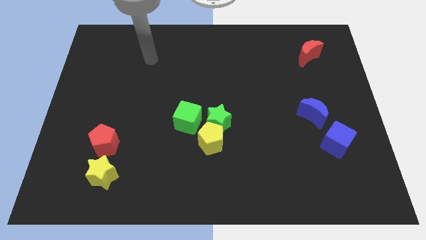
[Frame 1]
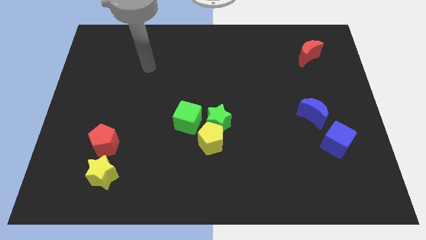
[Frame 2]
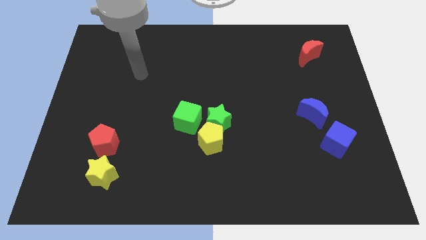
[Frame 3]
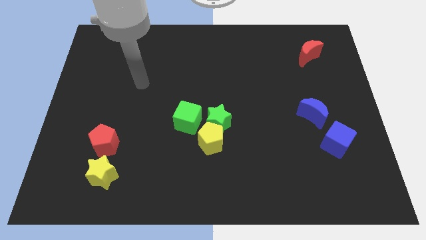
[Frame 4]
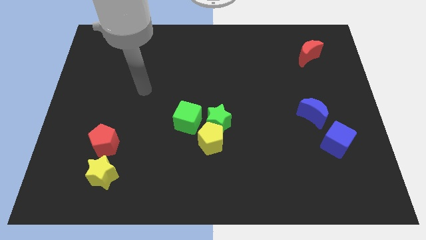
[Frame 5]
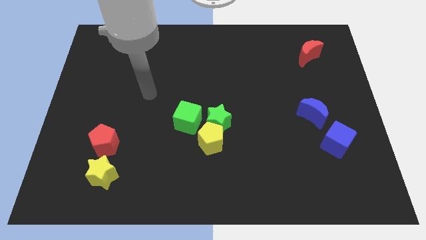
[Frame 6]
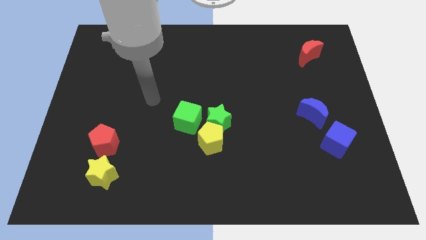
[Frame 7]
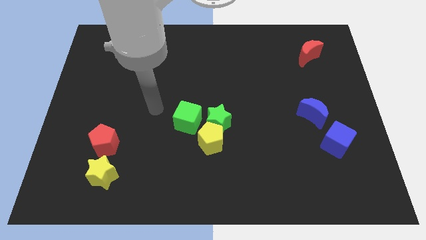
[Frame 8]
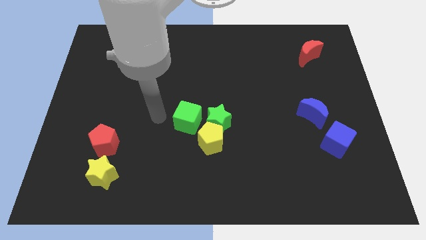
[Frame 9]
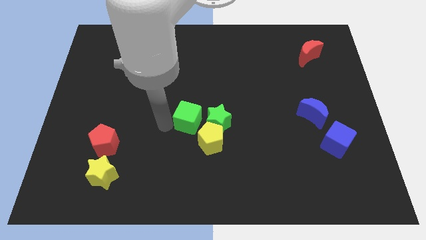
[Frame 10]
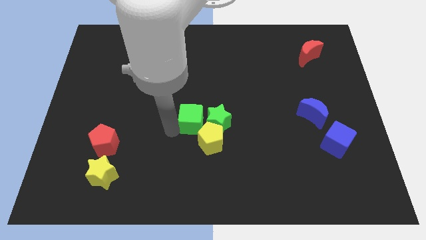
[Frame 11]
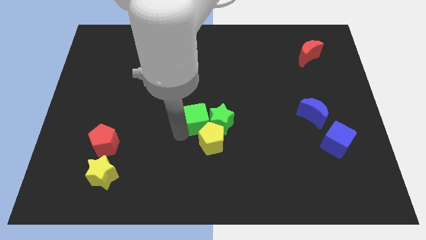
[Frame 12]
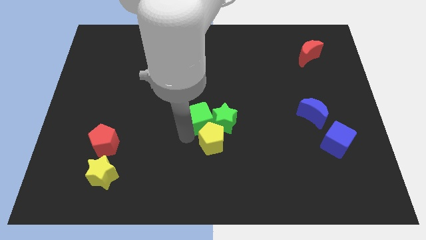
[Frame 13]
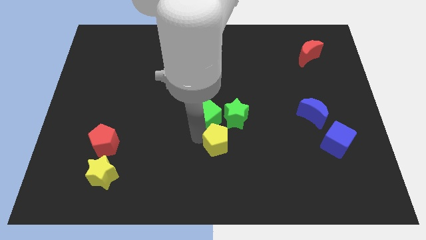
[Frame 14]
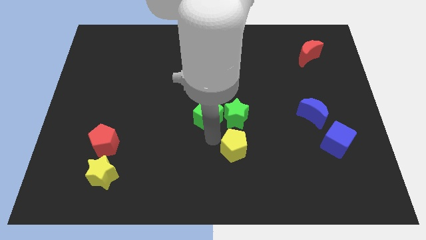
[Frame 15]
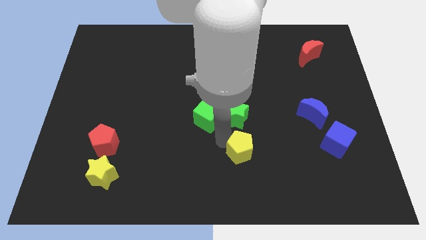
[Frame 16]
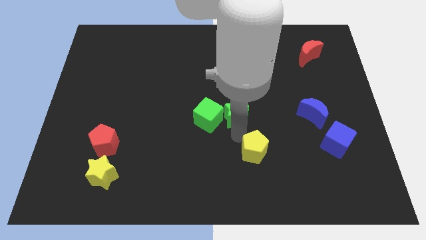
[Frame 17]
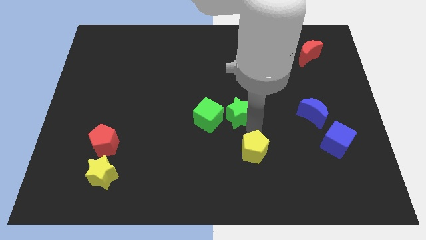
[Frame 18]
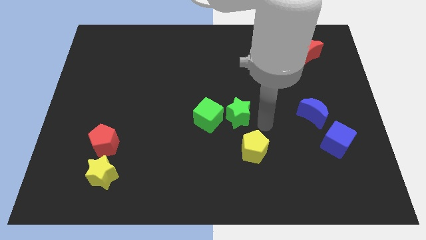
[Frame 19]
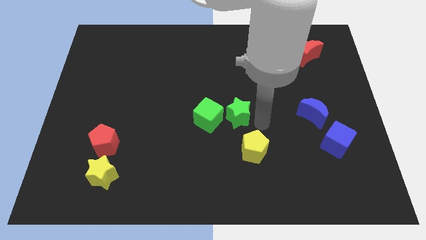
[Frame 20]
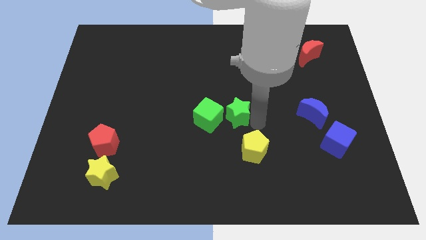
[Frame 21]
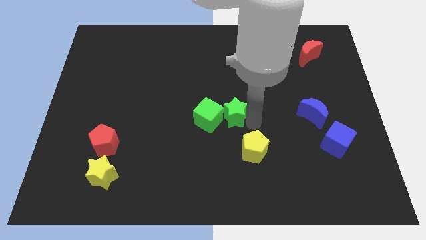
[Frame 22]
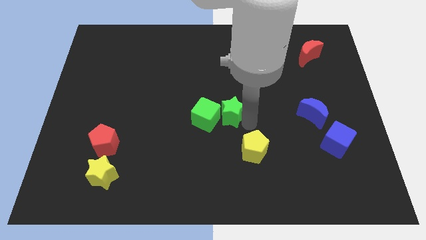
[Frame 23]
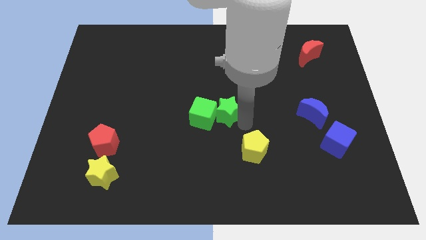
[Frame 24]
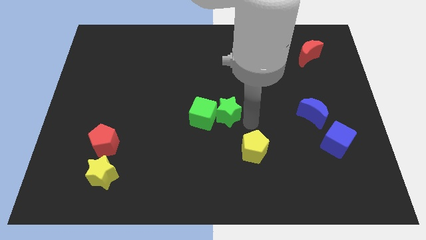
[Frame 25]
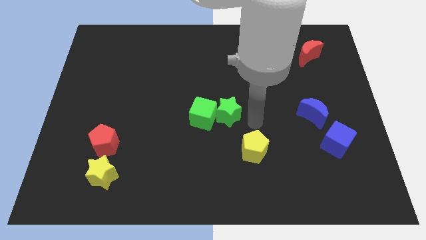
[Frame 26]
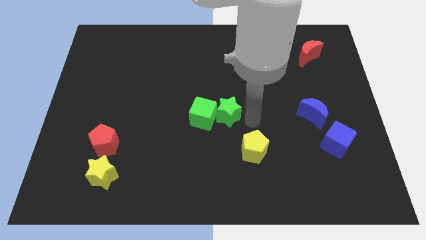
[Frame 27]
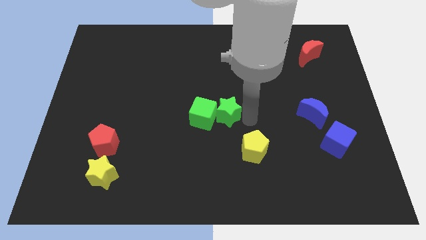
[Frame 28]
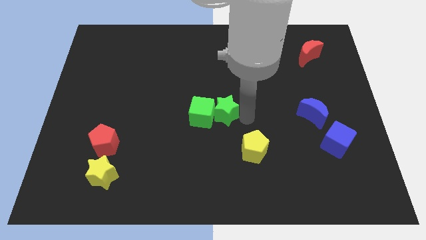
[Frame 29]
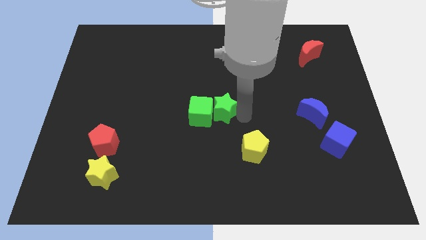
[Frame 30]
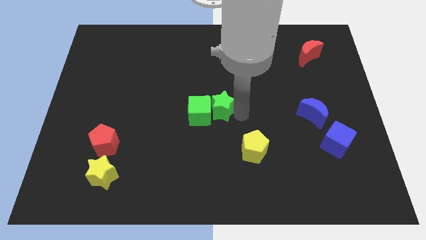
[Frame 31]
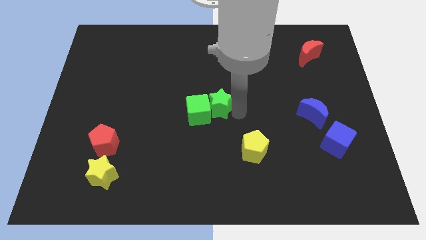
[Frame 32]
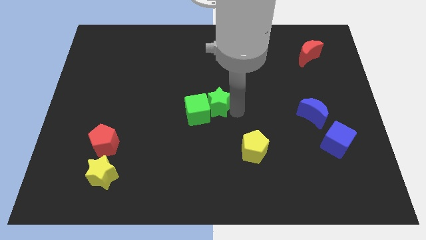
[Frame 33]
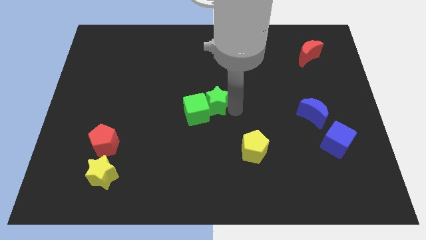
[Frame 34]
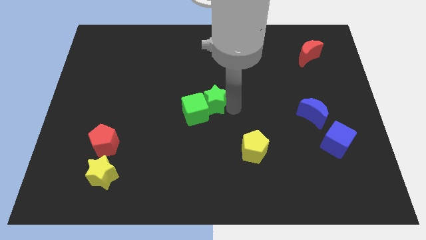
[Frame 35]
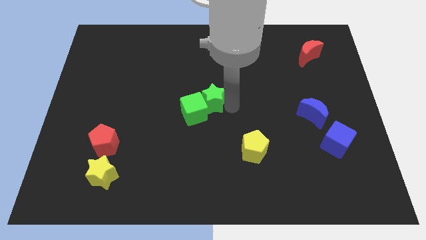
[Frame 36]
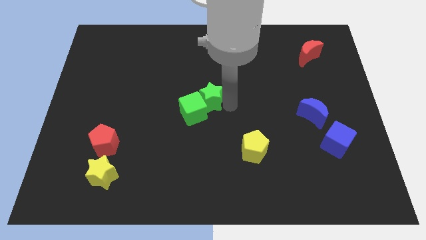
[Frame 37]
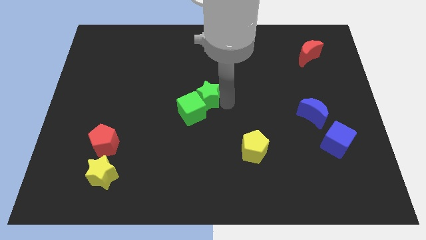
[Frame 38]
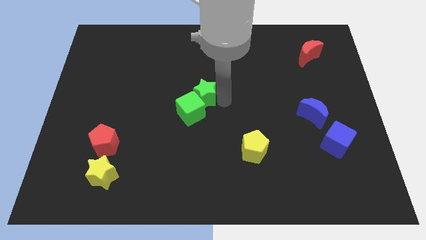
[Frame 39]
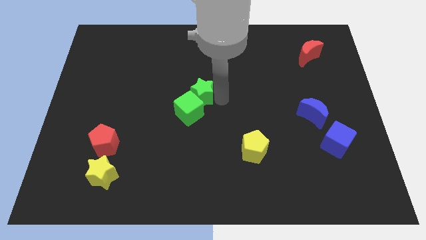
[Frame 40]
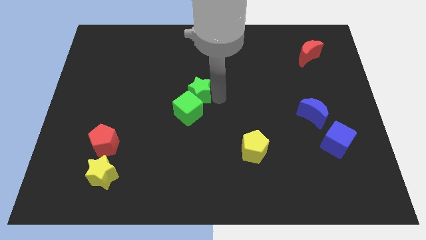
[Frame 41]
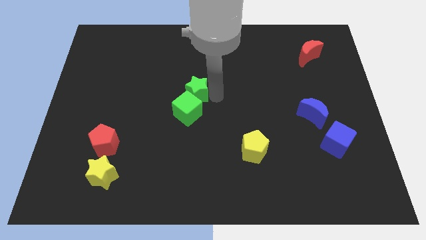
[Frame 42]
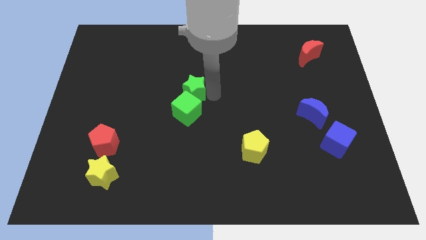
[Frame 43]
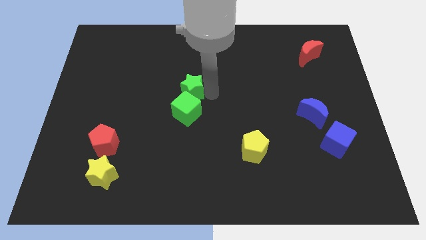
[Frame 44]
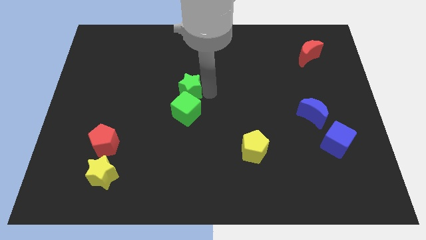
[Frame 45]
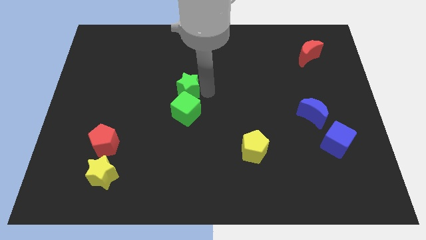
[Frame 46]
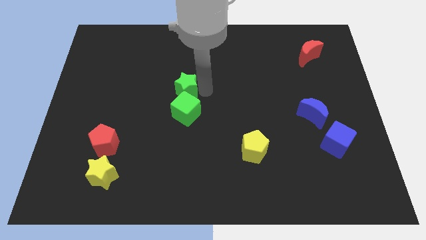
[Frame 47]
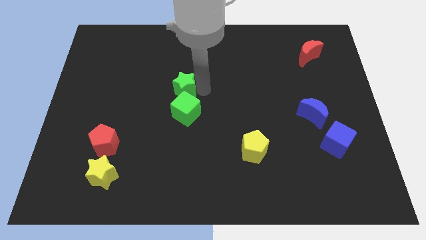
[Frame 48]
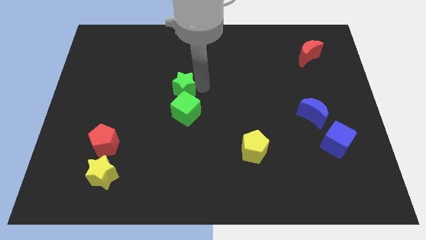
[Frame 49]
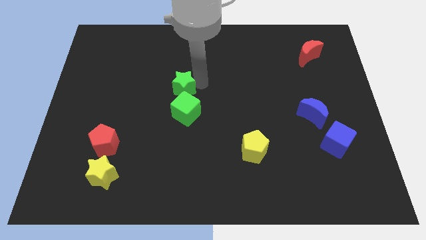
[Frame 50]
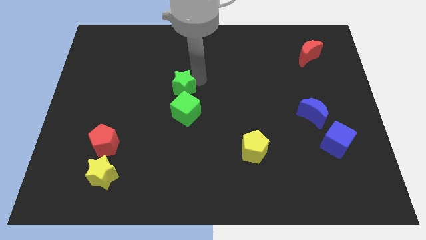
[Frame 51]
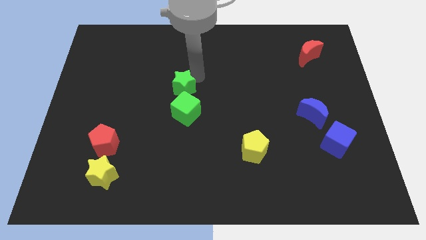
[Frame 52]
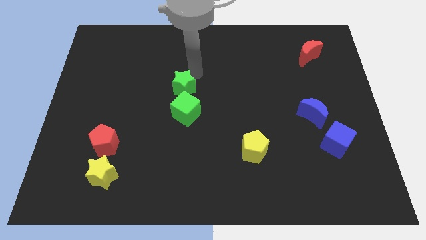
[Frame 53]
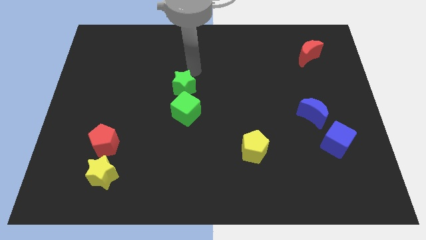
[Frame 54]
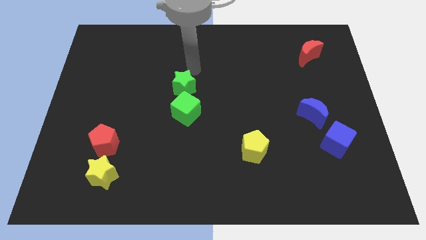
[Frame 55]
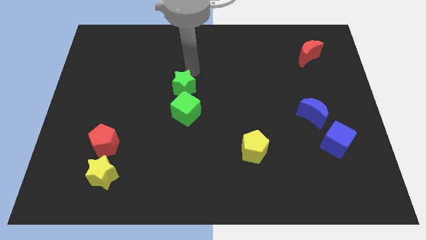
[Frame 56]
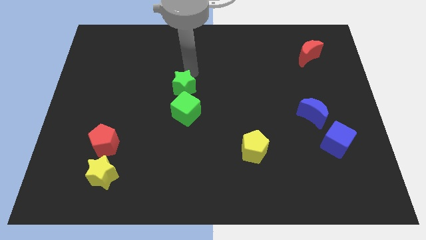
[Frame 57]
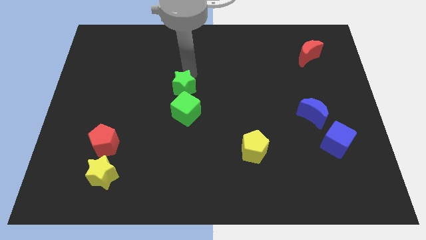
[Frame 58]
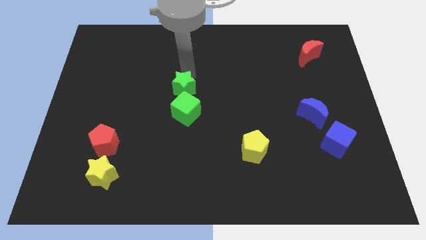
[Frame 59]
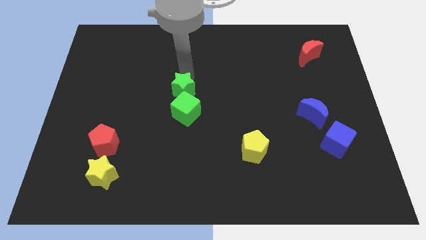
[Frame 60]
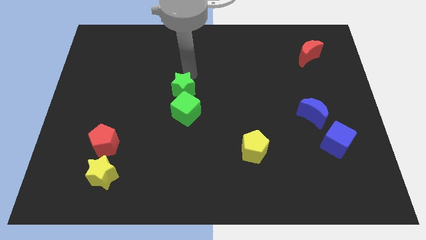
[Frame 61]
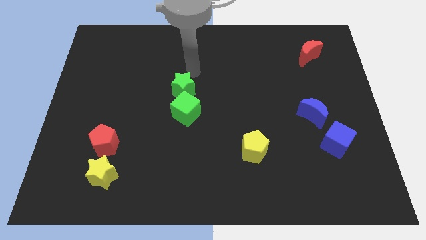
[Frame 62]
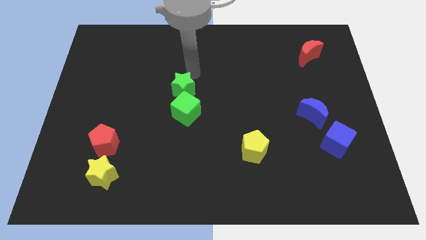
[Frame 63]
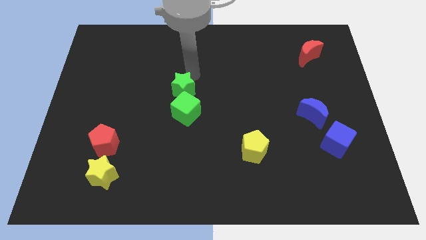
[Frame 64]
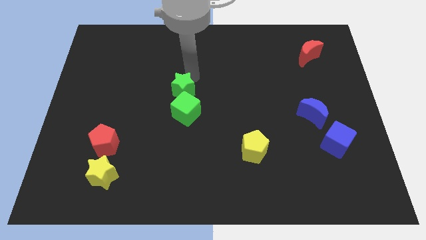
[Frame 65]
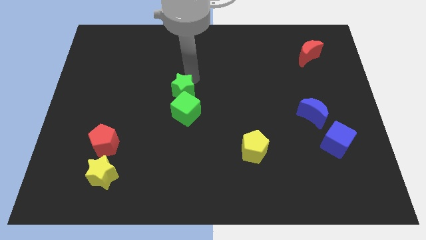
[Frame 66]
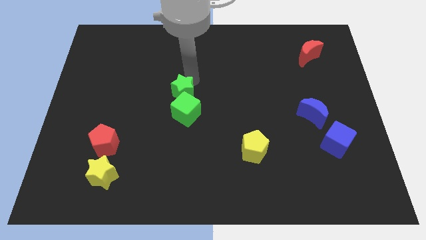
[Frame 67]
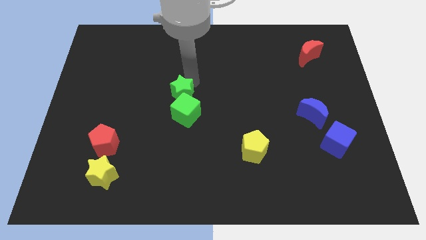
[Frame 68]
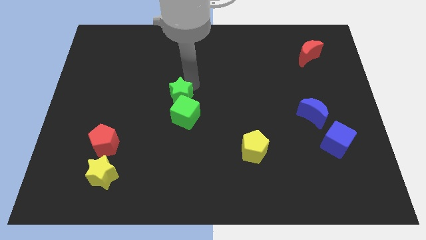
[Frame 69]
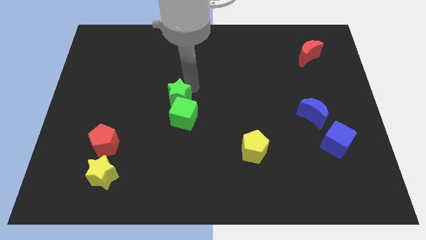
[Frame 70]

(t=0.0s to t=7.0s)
slightly push the green star to the left

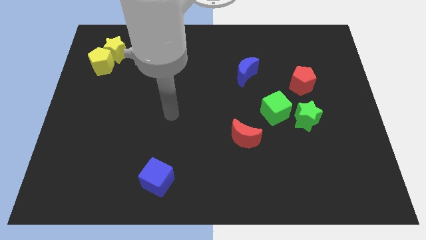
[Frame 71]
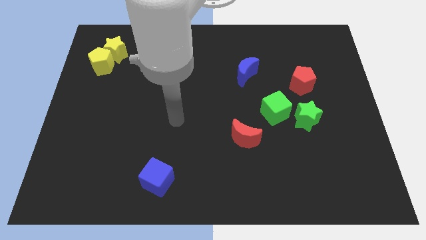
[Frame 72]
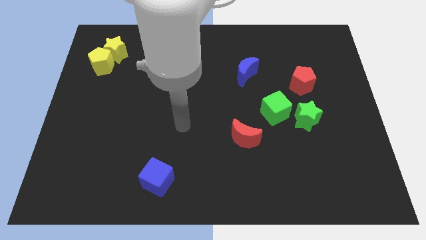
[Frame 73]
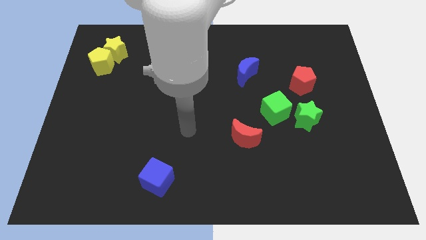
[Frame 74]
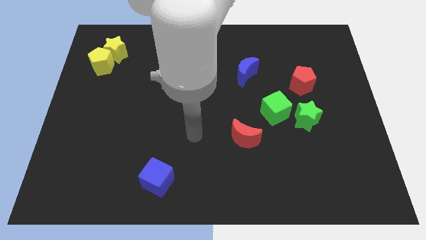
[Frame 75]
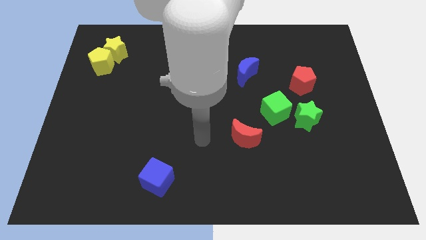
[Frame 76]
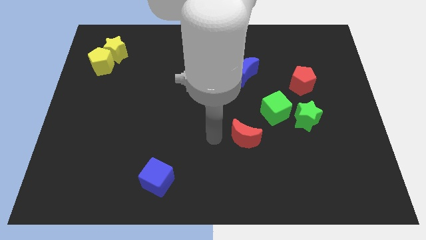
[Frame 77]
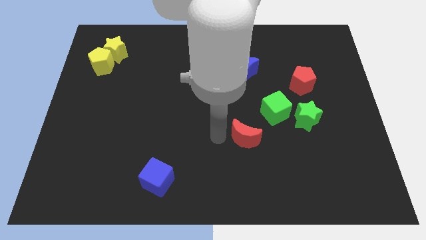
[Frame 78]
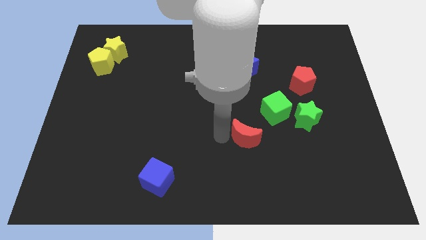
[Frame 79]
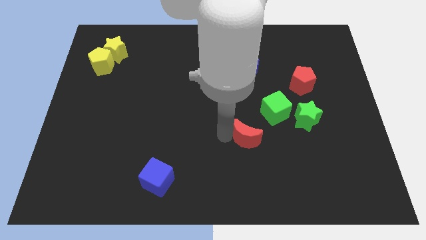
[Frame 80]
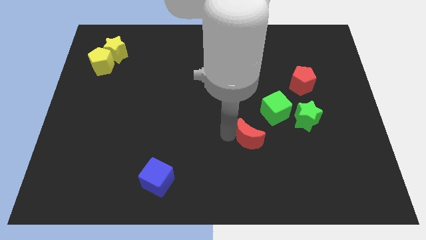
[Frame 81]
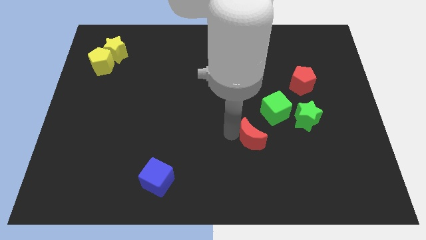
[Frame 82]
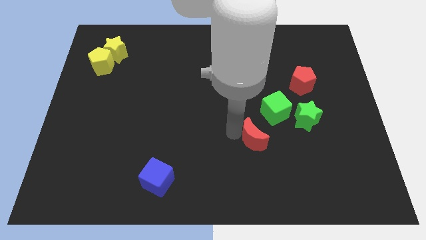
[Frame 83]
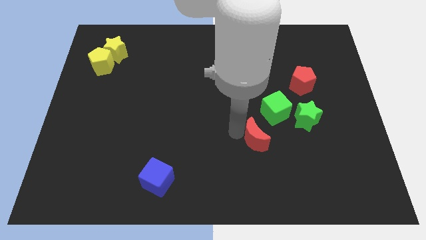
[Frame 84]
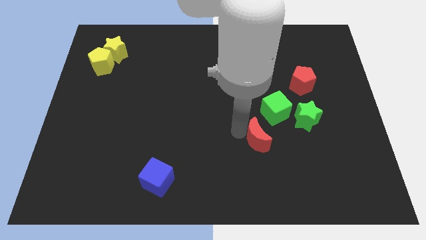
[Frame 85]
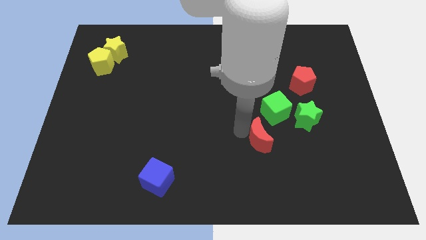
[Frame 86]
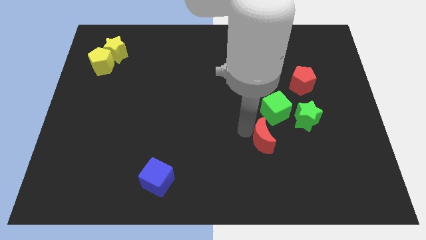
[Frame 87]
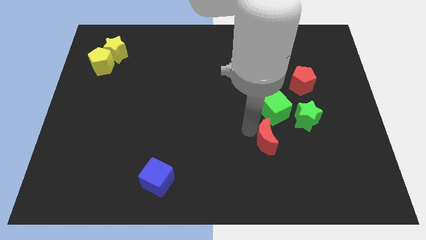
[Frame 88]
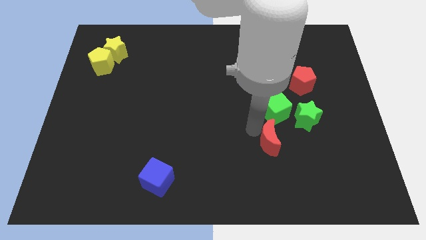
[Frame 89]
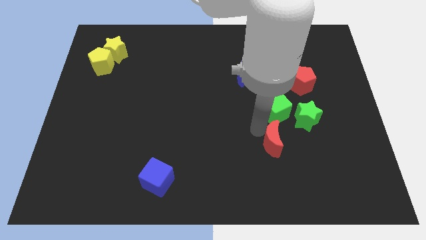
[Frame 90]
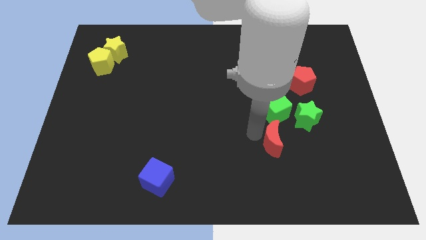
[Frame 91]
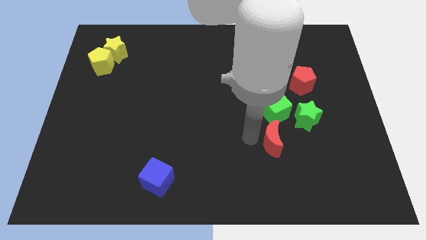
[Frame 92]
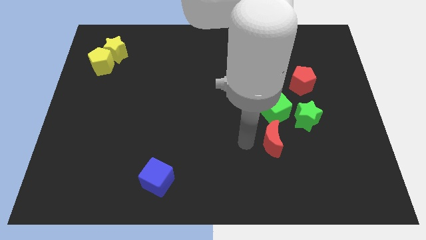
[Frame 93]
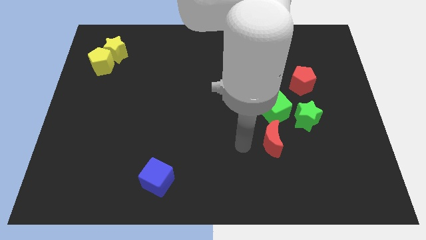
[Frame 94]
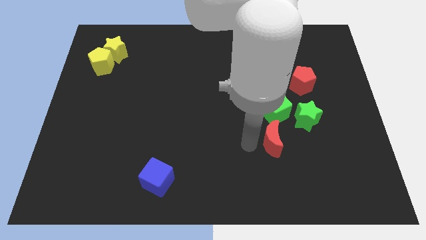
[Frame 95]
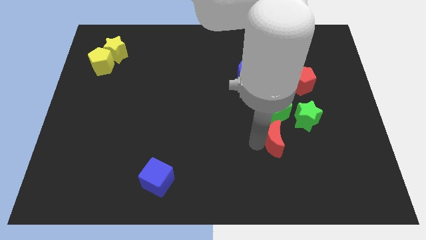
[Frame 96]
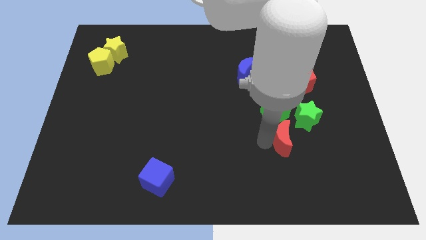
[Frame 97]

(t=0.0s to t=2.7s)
slightly slide the red moon to the right
